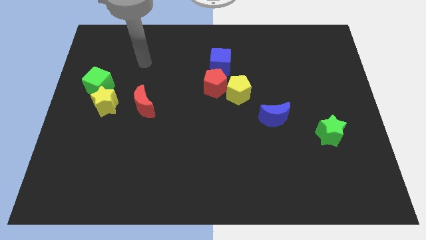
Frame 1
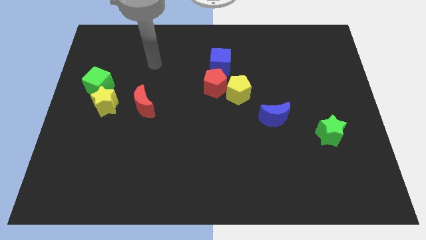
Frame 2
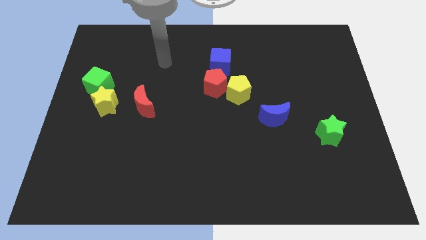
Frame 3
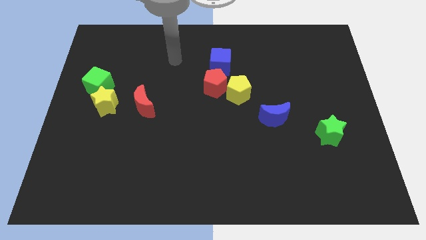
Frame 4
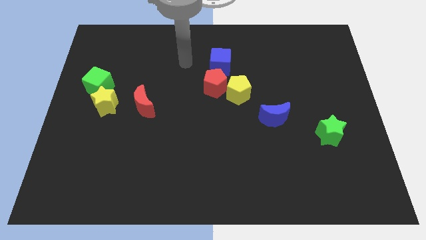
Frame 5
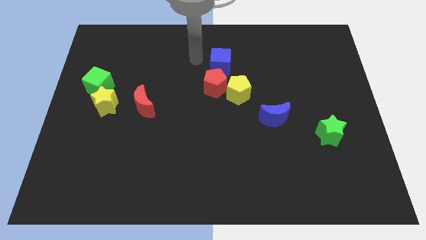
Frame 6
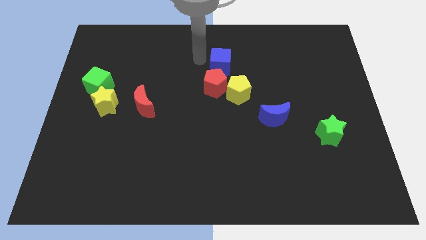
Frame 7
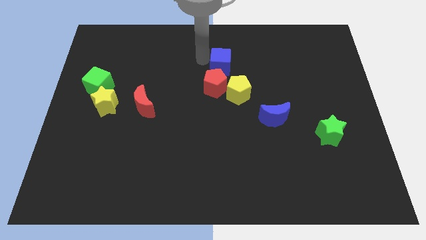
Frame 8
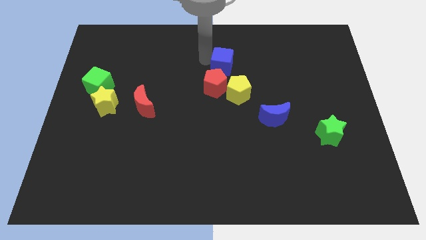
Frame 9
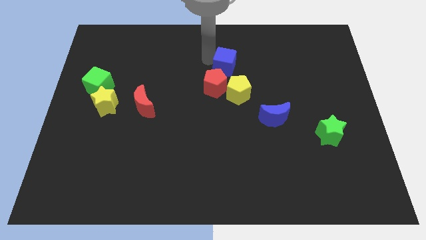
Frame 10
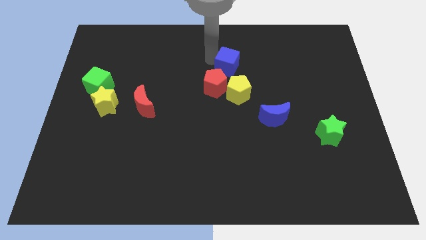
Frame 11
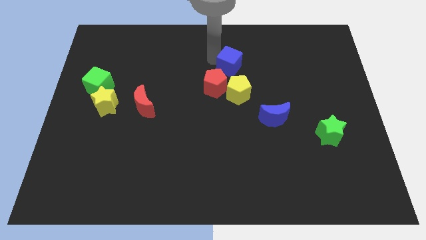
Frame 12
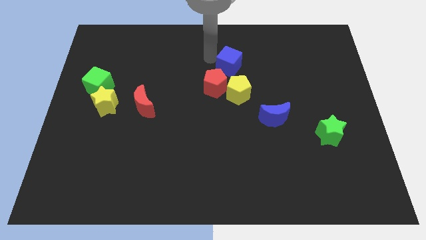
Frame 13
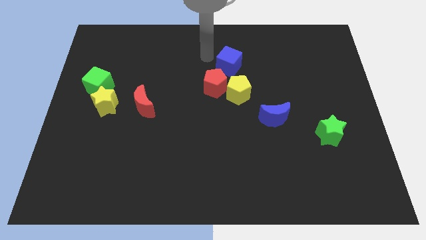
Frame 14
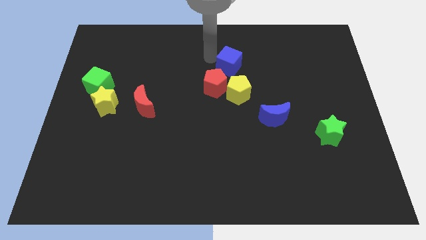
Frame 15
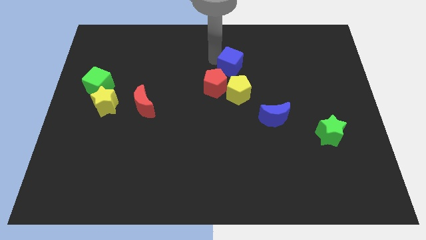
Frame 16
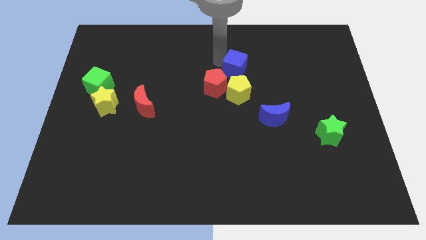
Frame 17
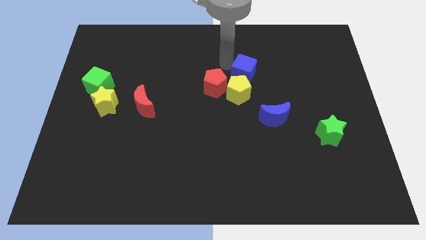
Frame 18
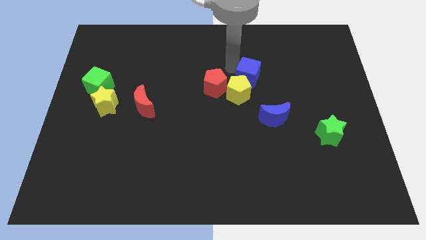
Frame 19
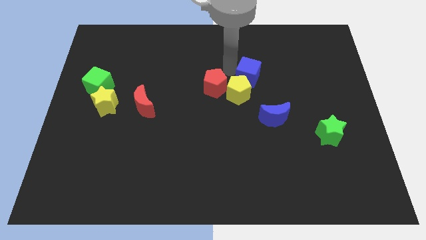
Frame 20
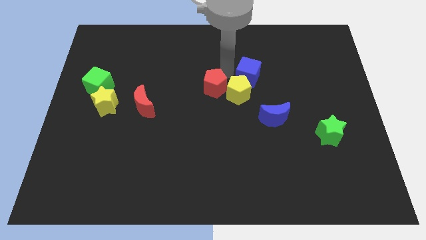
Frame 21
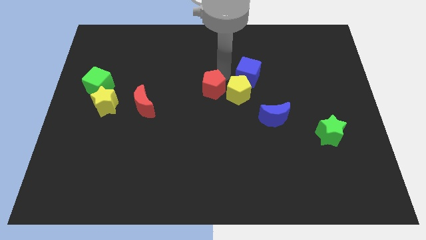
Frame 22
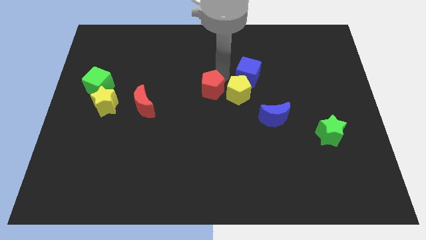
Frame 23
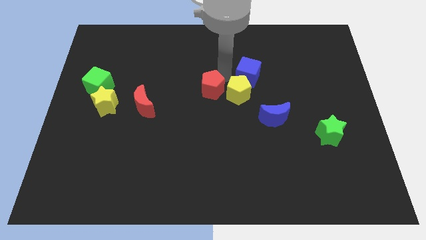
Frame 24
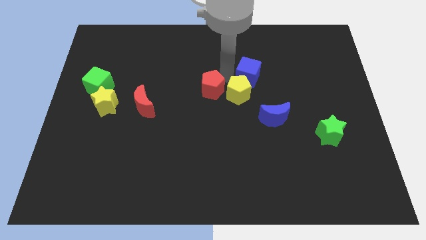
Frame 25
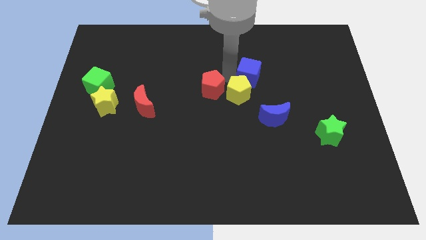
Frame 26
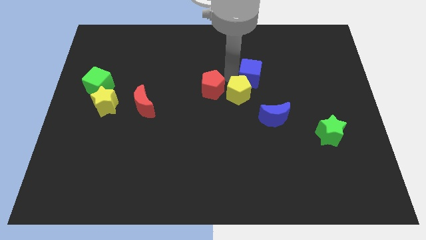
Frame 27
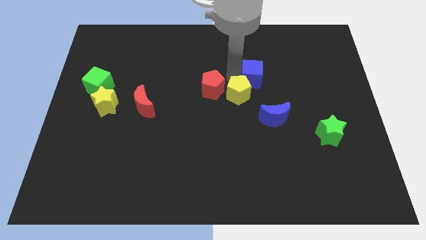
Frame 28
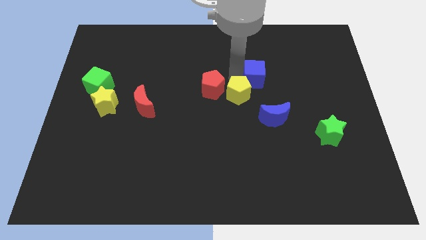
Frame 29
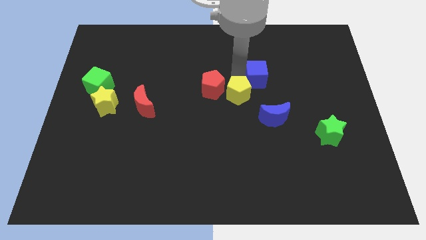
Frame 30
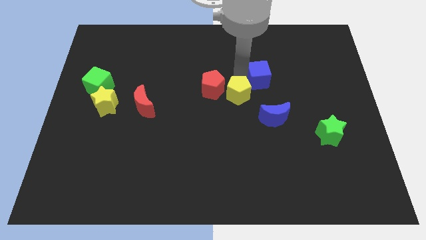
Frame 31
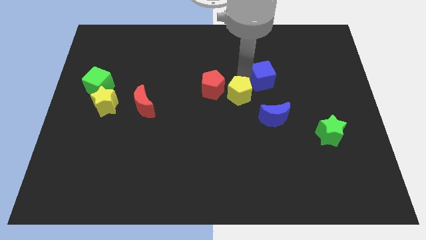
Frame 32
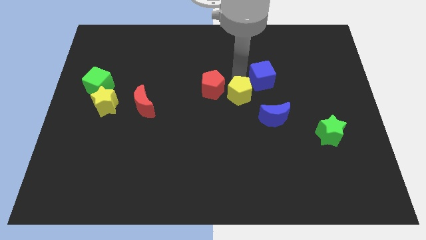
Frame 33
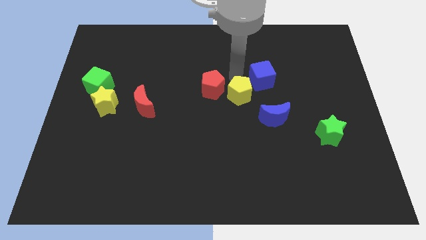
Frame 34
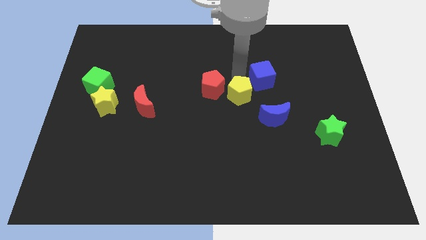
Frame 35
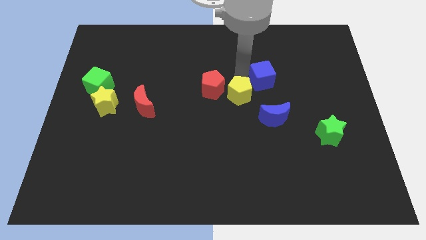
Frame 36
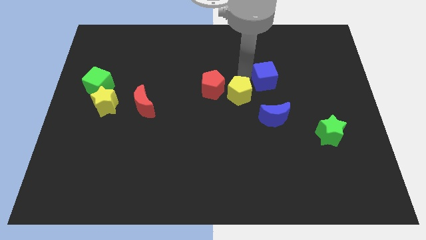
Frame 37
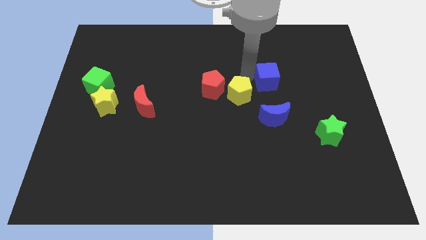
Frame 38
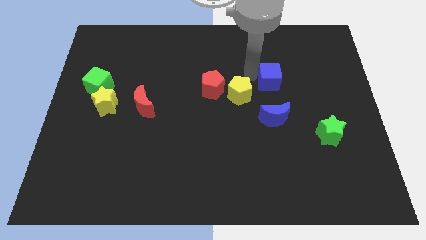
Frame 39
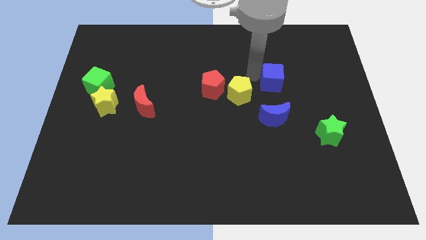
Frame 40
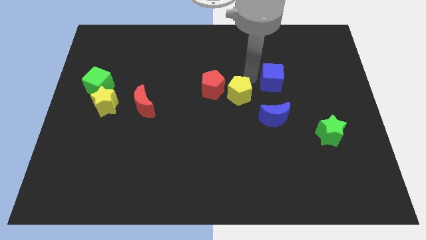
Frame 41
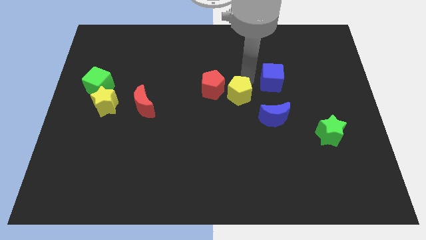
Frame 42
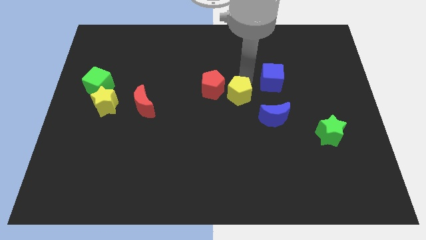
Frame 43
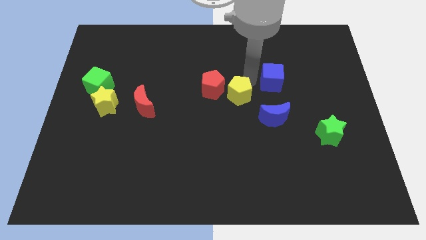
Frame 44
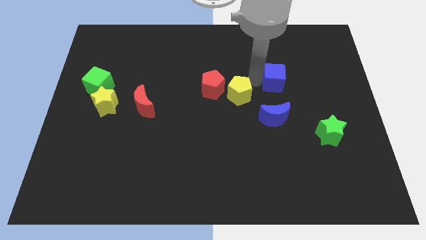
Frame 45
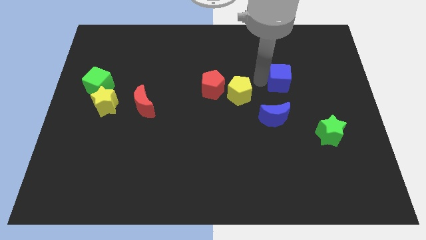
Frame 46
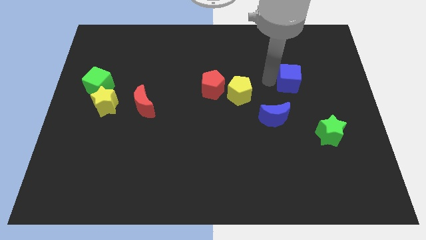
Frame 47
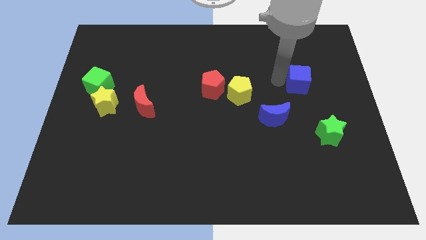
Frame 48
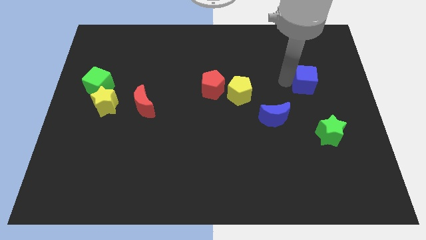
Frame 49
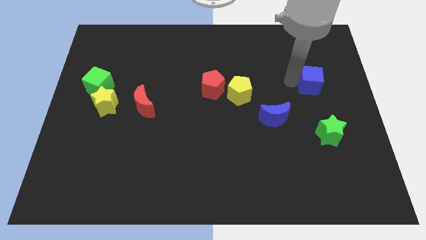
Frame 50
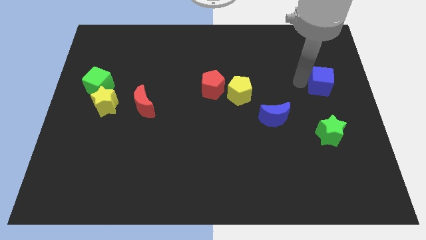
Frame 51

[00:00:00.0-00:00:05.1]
put the blue cube to the right side

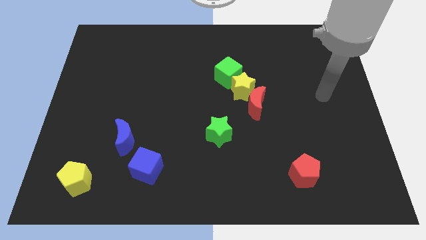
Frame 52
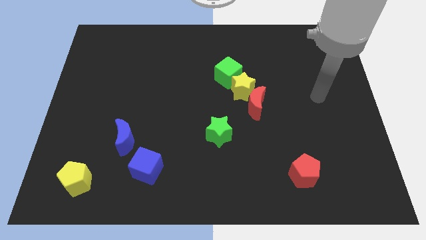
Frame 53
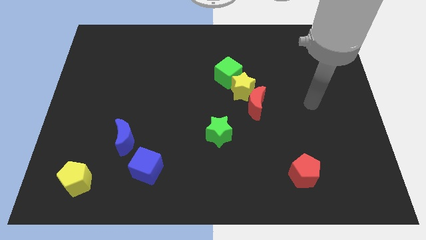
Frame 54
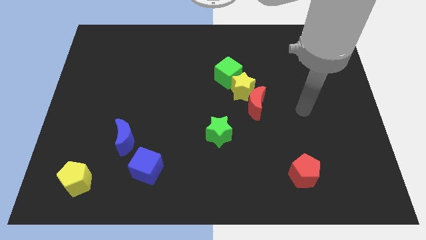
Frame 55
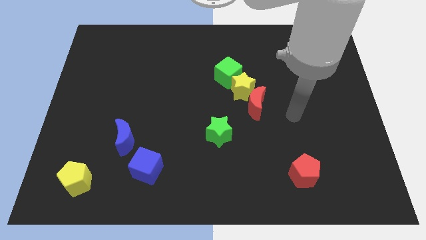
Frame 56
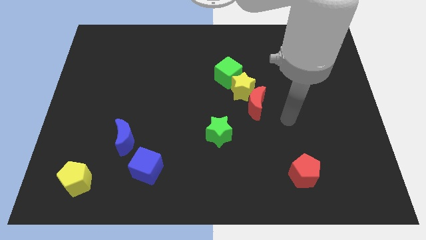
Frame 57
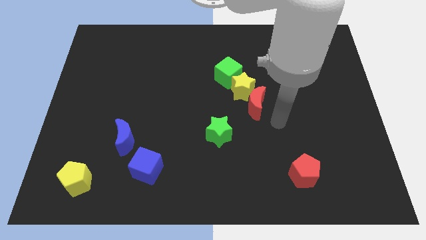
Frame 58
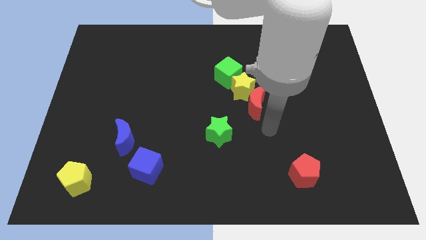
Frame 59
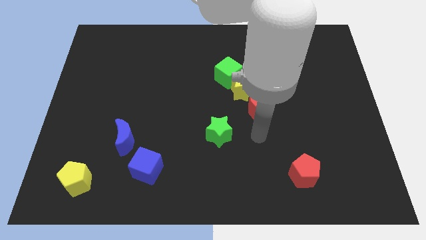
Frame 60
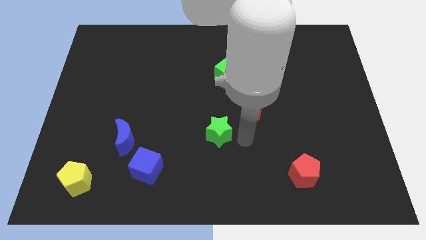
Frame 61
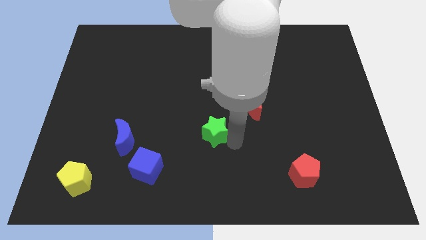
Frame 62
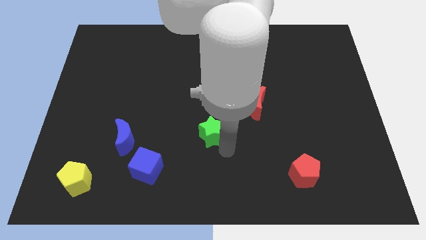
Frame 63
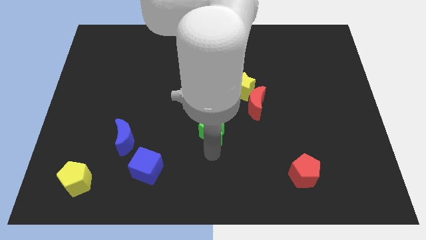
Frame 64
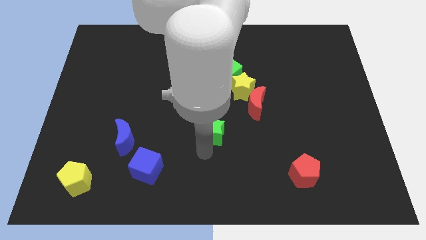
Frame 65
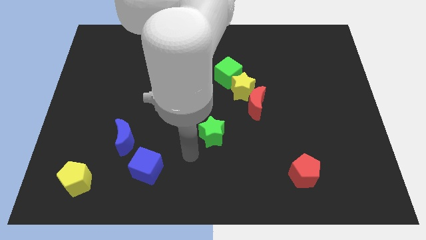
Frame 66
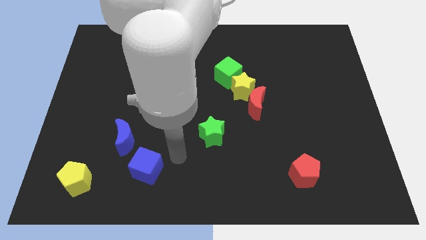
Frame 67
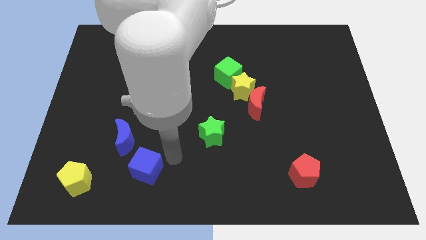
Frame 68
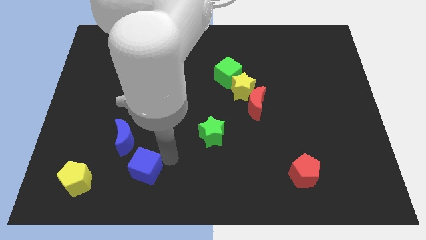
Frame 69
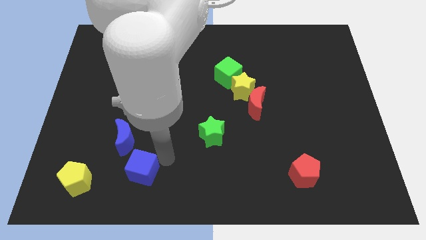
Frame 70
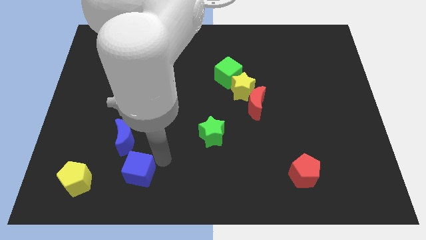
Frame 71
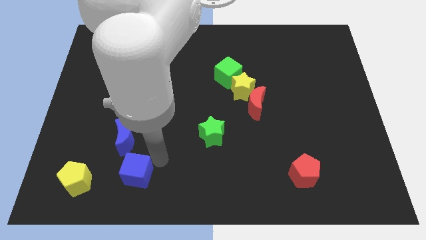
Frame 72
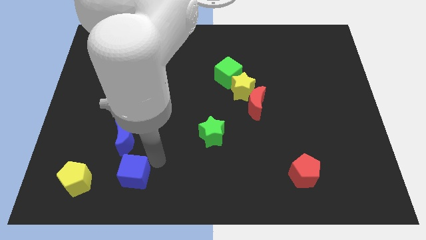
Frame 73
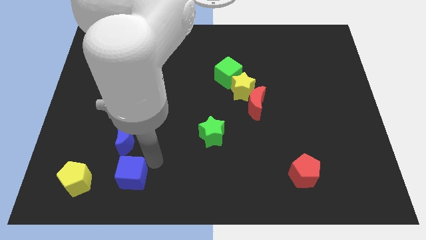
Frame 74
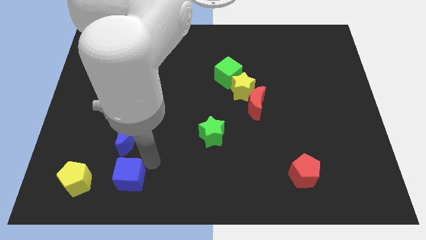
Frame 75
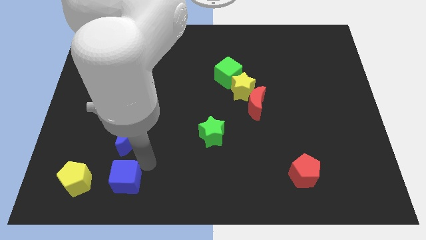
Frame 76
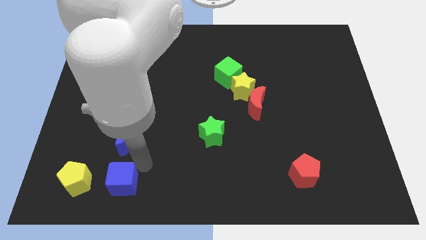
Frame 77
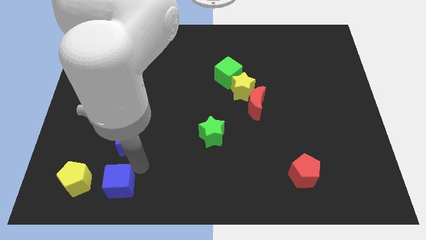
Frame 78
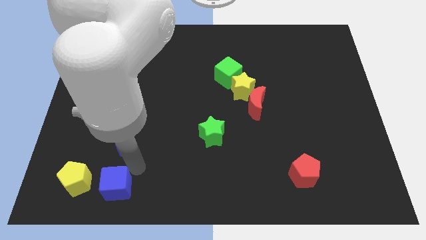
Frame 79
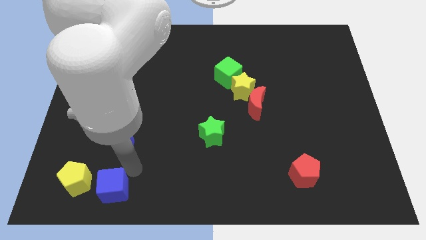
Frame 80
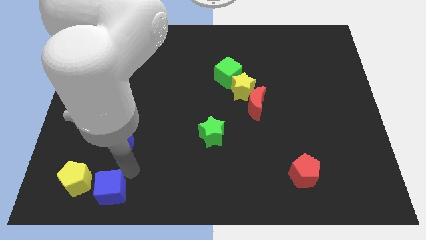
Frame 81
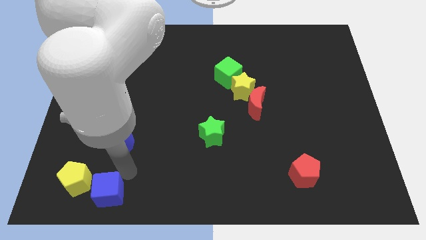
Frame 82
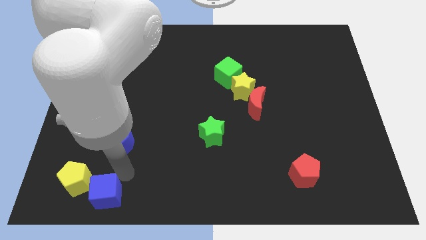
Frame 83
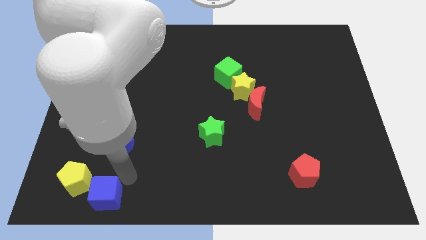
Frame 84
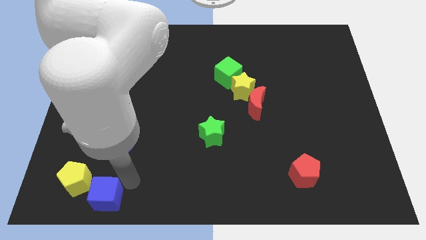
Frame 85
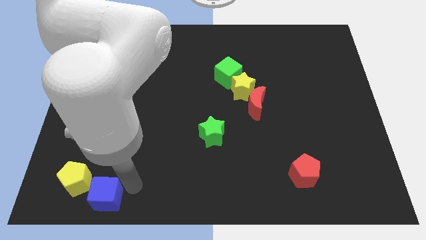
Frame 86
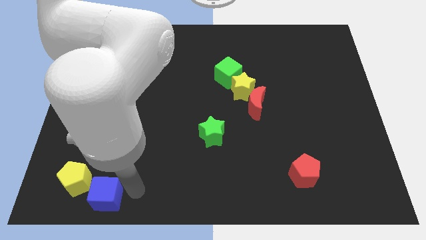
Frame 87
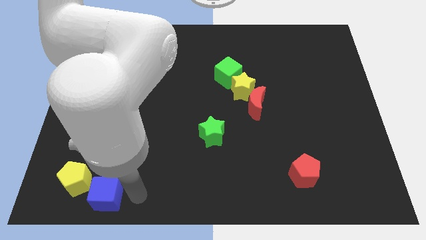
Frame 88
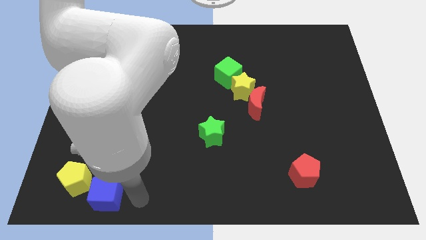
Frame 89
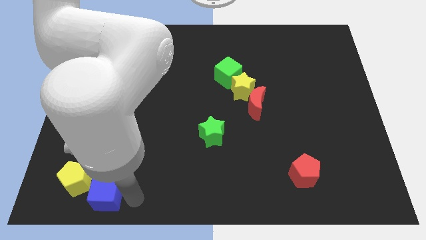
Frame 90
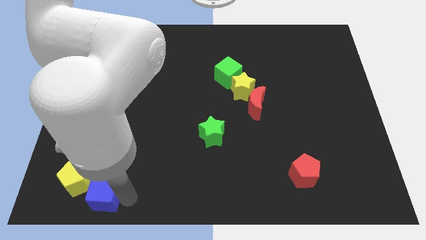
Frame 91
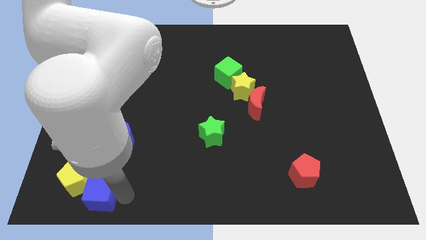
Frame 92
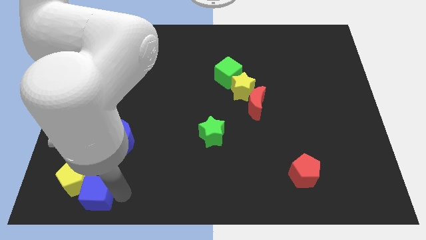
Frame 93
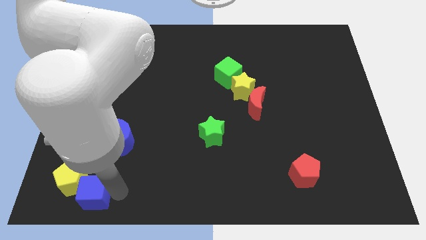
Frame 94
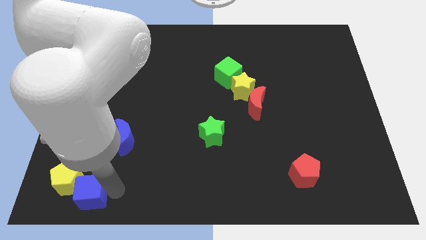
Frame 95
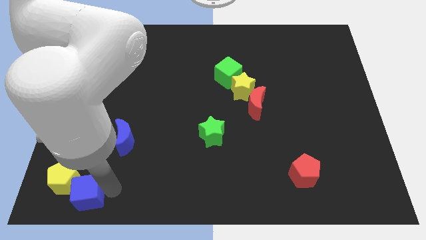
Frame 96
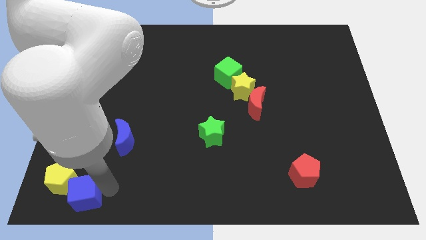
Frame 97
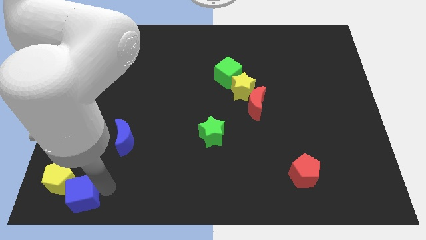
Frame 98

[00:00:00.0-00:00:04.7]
push the blue cube to the lower left corner
